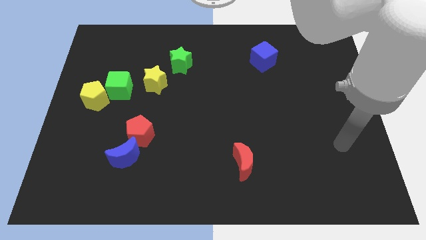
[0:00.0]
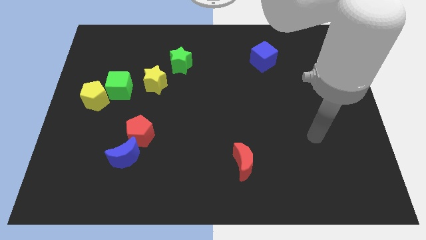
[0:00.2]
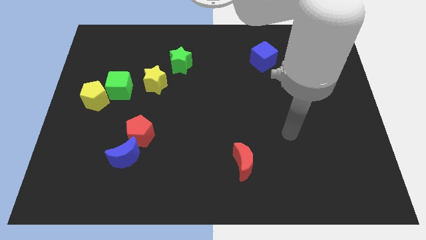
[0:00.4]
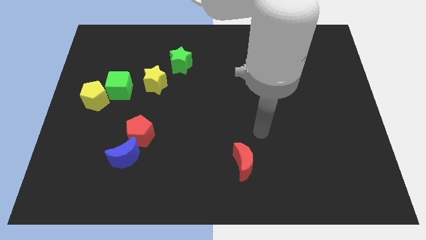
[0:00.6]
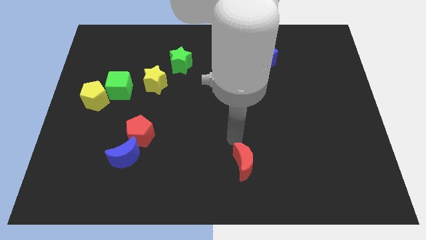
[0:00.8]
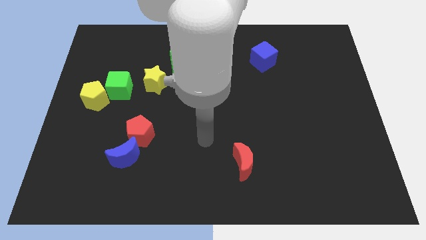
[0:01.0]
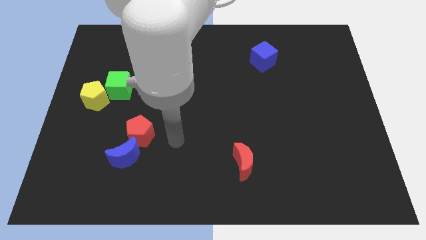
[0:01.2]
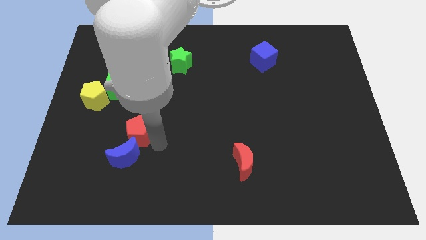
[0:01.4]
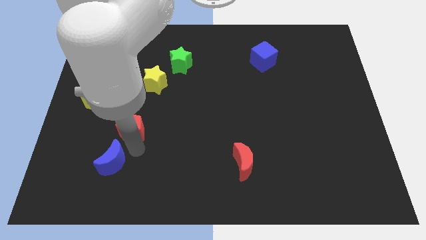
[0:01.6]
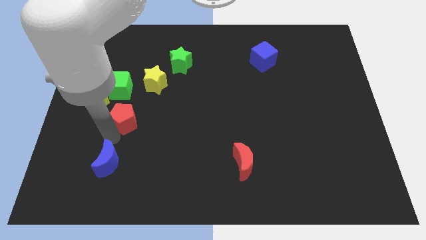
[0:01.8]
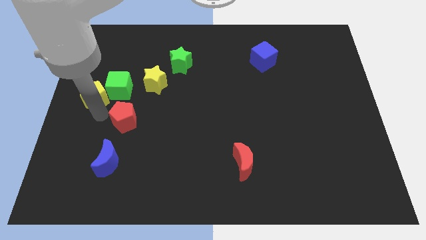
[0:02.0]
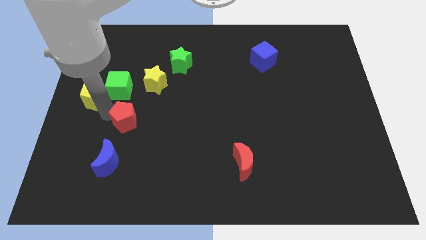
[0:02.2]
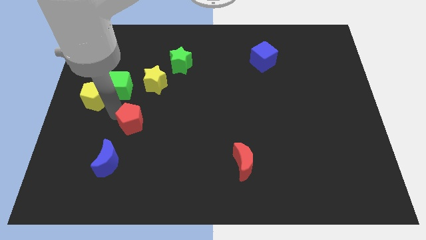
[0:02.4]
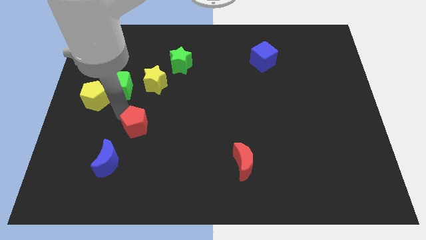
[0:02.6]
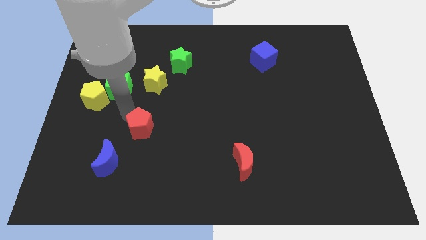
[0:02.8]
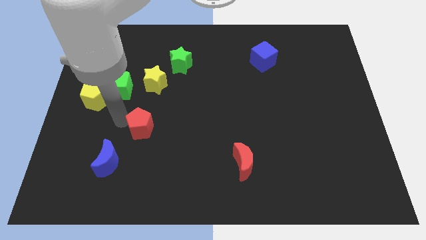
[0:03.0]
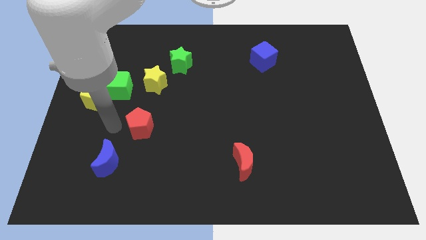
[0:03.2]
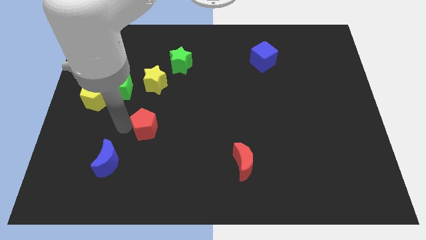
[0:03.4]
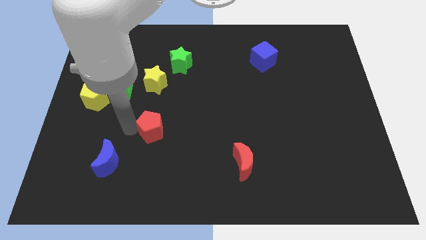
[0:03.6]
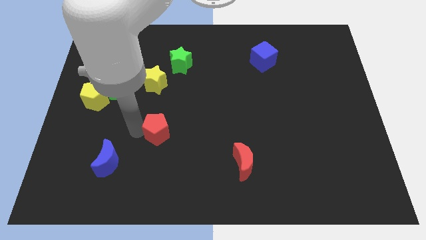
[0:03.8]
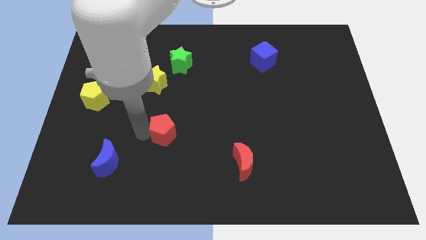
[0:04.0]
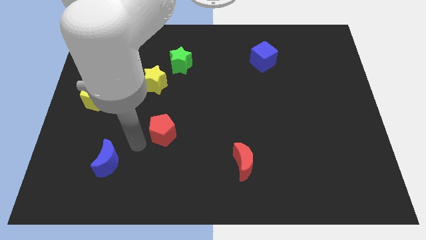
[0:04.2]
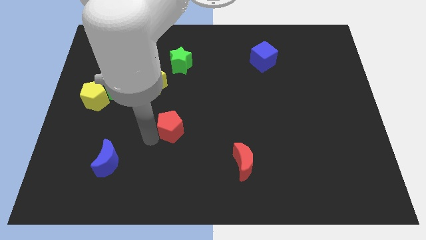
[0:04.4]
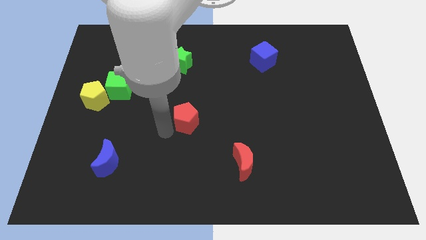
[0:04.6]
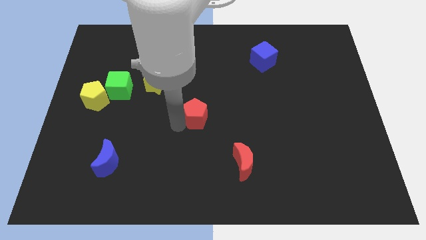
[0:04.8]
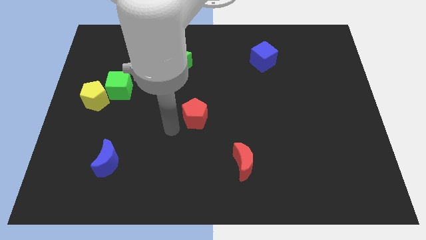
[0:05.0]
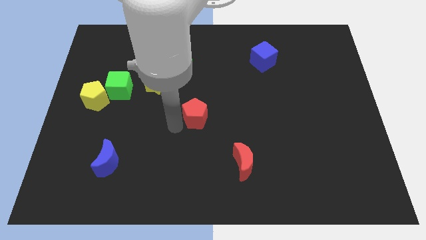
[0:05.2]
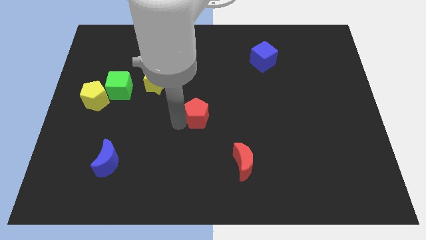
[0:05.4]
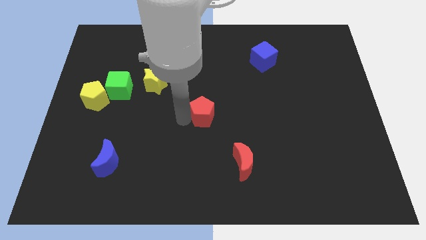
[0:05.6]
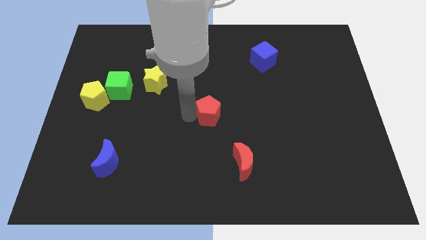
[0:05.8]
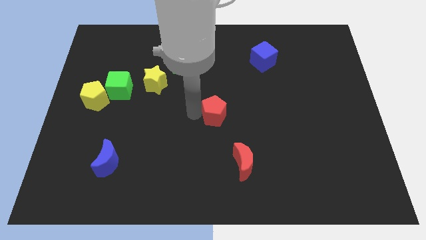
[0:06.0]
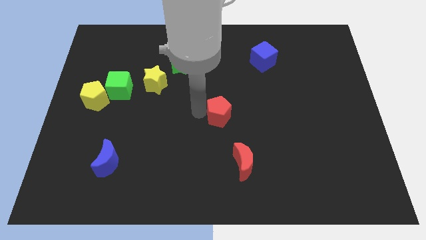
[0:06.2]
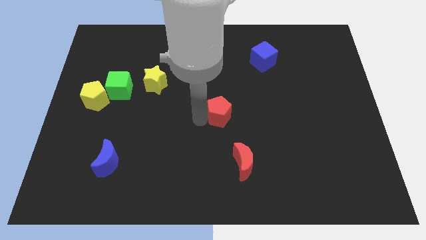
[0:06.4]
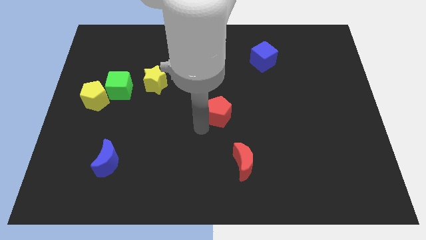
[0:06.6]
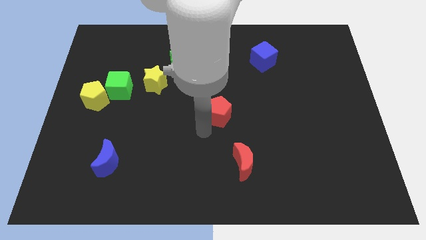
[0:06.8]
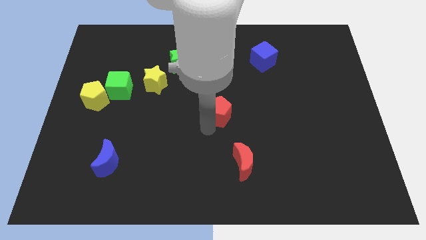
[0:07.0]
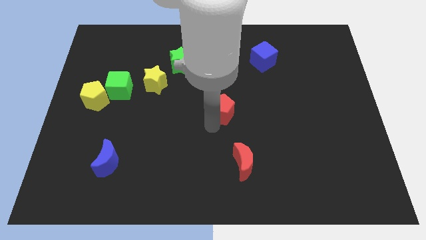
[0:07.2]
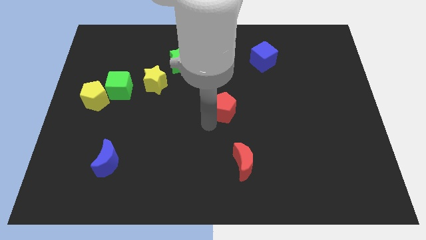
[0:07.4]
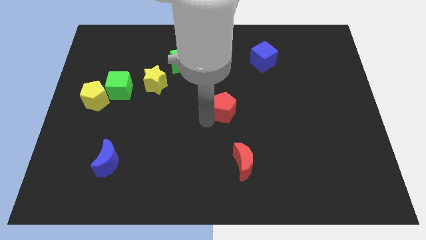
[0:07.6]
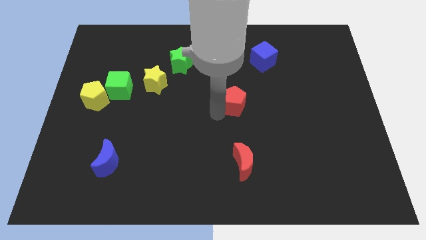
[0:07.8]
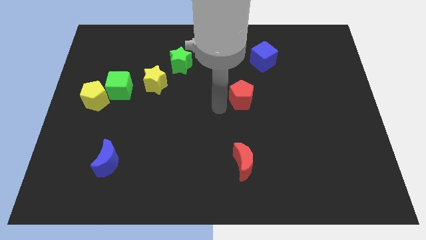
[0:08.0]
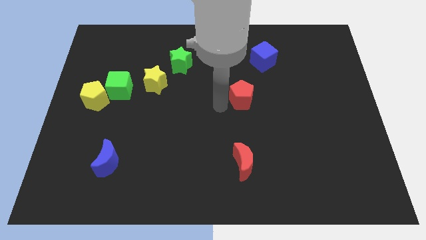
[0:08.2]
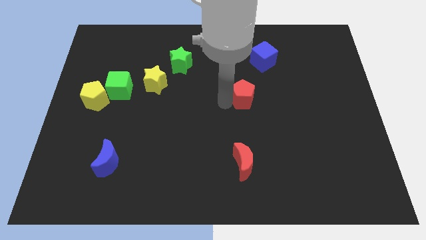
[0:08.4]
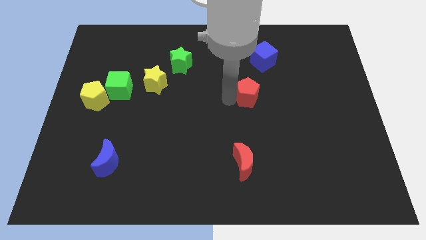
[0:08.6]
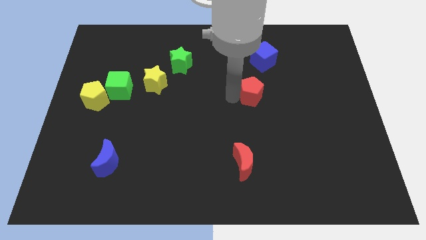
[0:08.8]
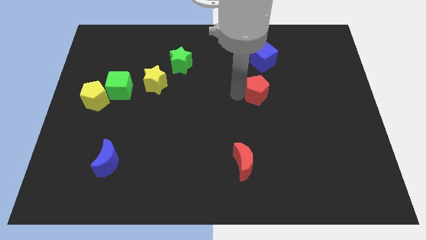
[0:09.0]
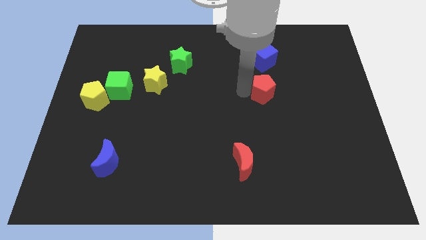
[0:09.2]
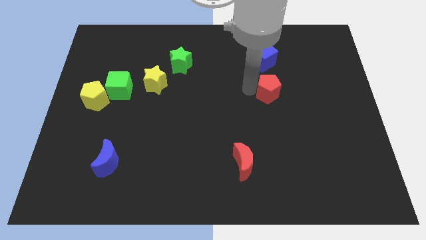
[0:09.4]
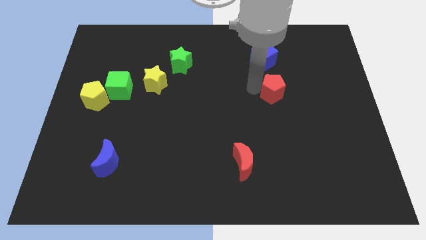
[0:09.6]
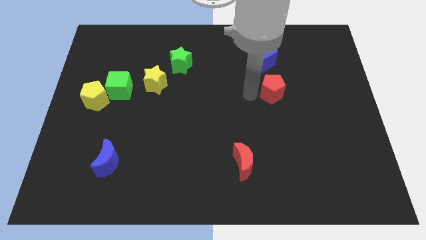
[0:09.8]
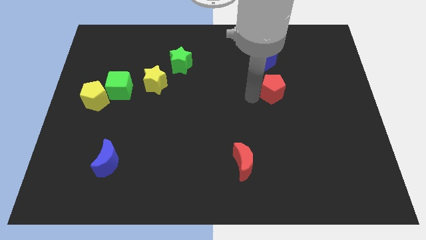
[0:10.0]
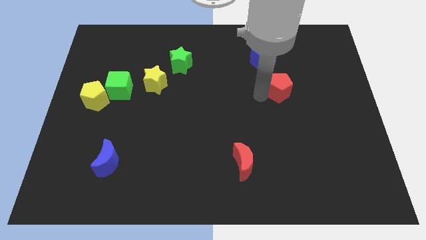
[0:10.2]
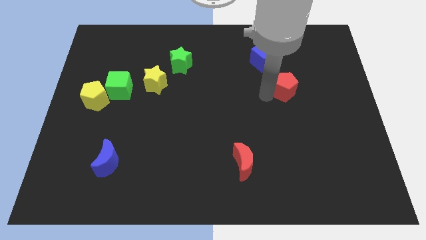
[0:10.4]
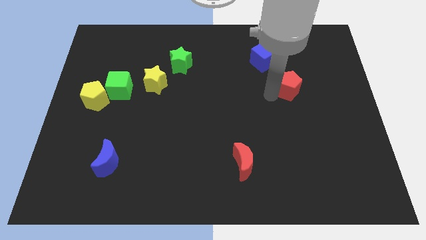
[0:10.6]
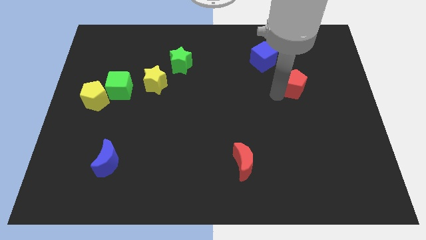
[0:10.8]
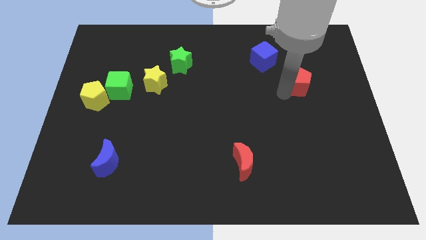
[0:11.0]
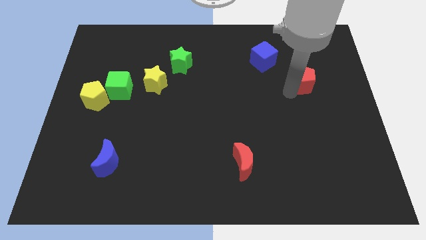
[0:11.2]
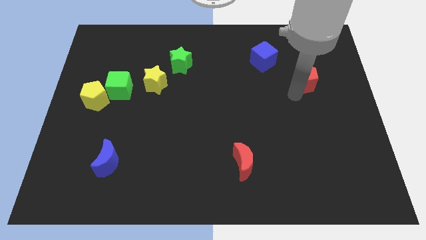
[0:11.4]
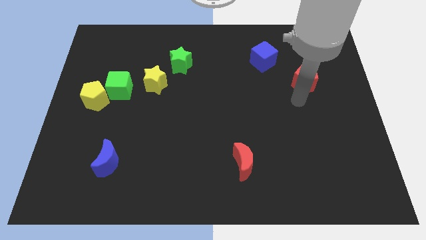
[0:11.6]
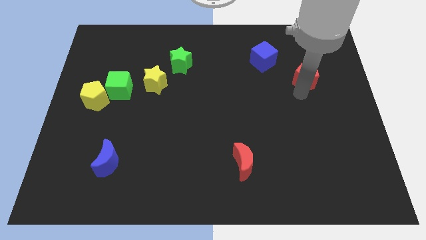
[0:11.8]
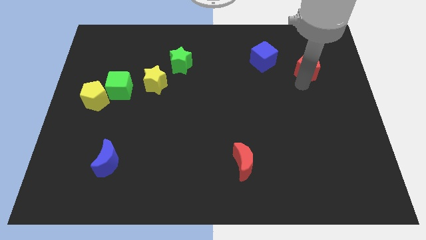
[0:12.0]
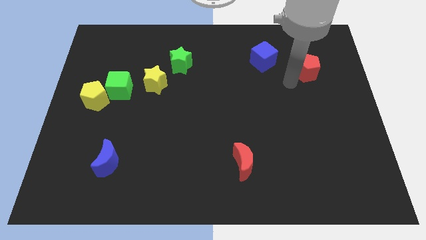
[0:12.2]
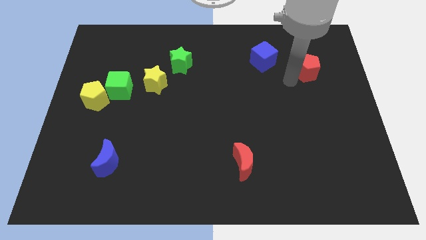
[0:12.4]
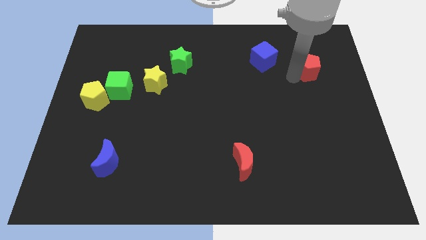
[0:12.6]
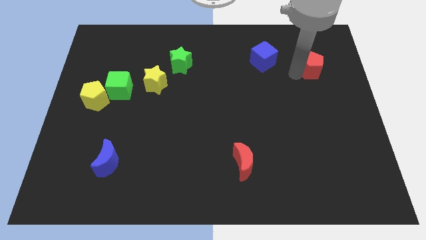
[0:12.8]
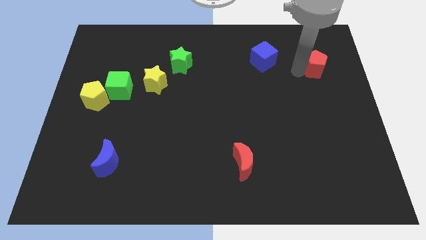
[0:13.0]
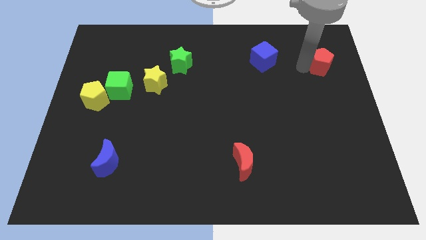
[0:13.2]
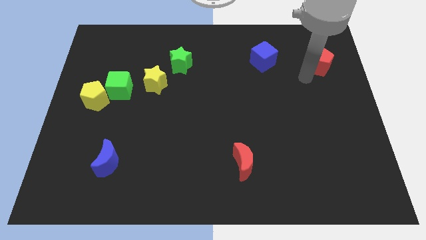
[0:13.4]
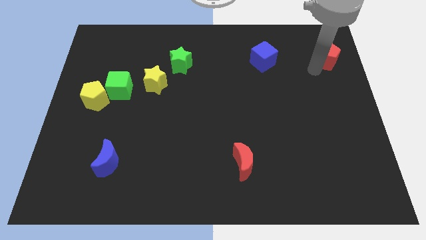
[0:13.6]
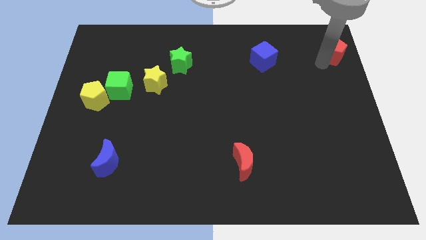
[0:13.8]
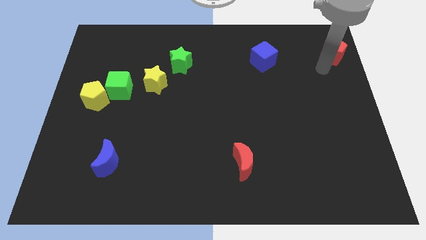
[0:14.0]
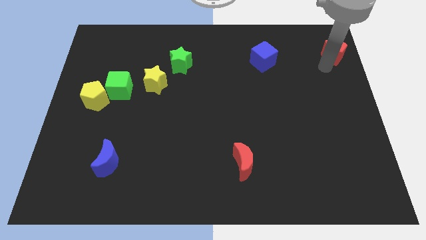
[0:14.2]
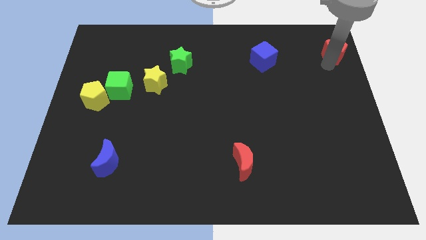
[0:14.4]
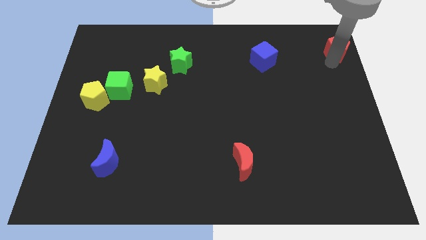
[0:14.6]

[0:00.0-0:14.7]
slide the red pentagon to the top right
